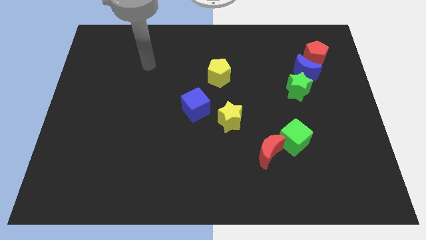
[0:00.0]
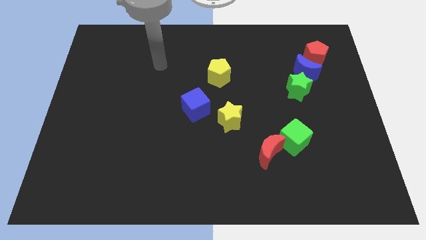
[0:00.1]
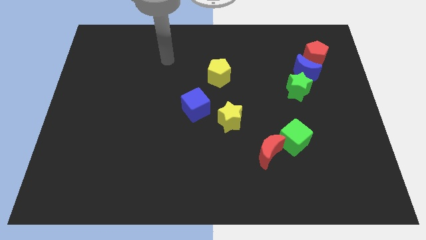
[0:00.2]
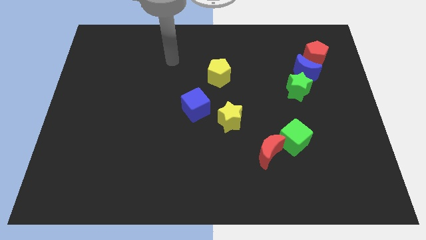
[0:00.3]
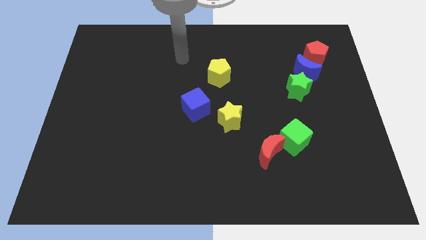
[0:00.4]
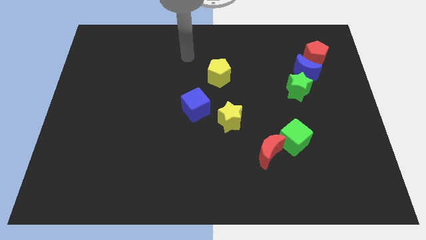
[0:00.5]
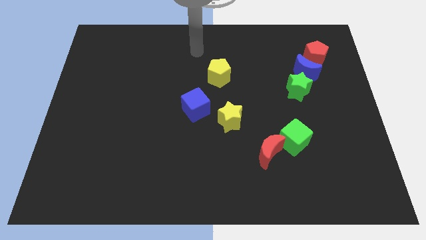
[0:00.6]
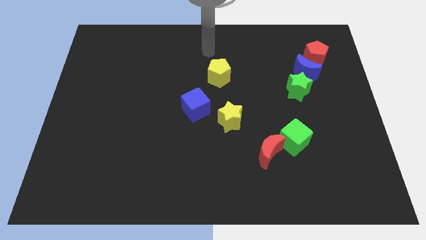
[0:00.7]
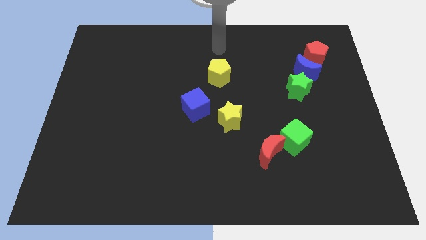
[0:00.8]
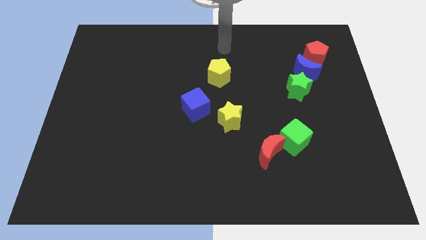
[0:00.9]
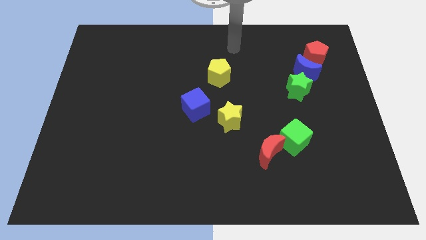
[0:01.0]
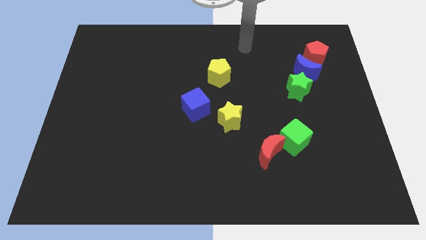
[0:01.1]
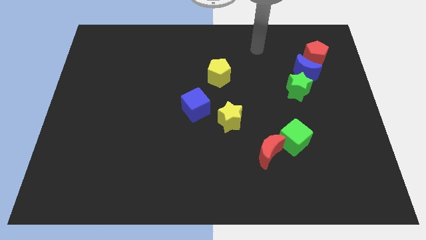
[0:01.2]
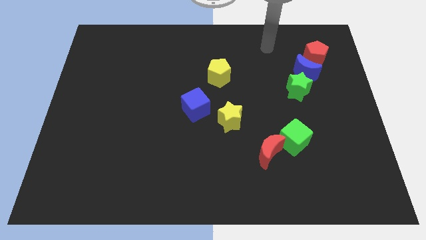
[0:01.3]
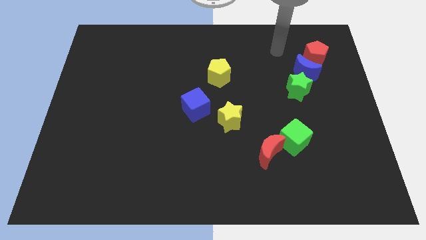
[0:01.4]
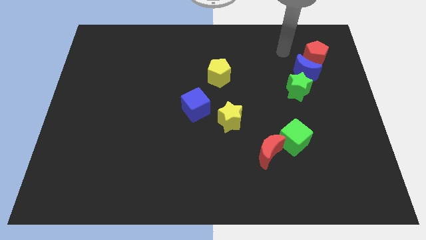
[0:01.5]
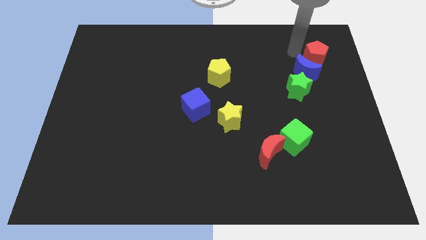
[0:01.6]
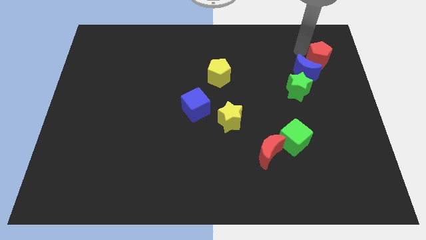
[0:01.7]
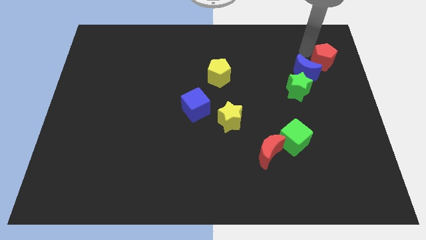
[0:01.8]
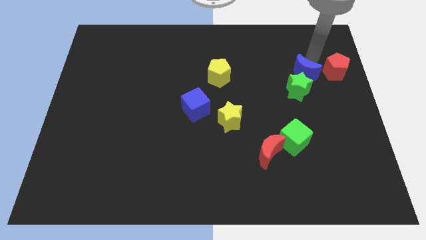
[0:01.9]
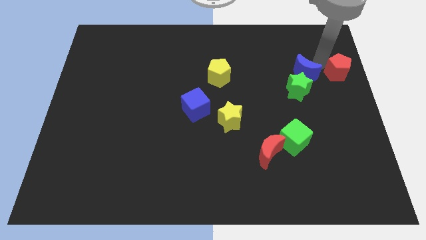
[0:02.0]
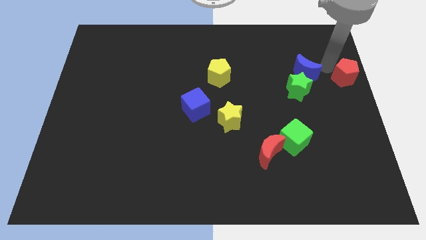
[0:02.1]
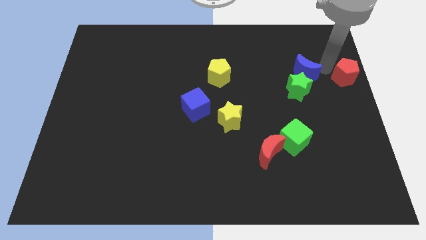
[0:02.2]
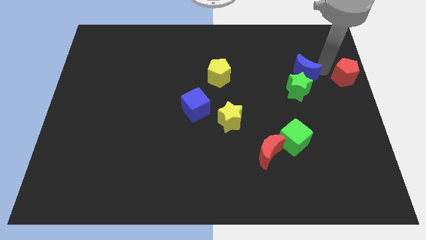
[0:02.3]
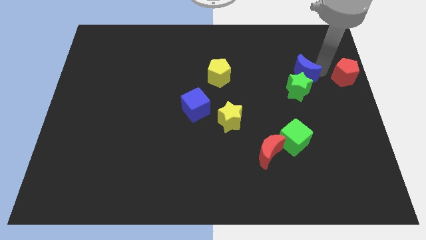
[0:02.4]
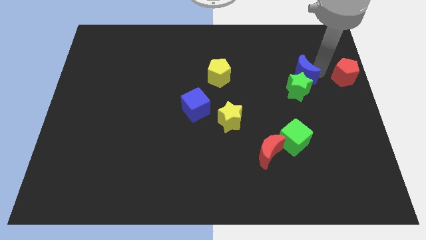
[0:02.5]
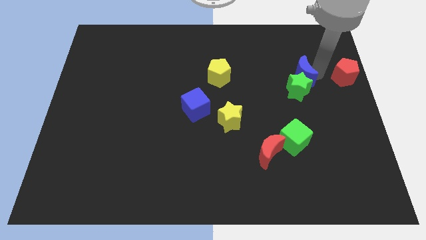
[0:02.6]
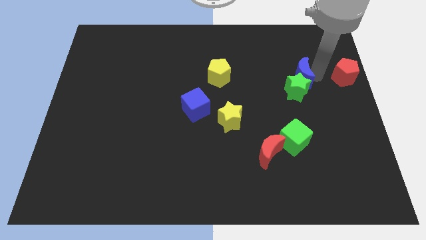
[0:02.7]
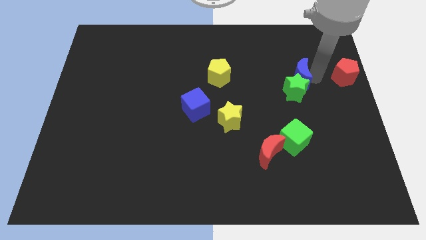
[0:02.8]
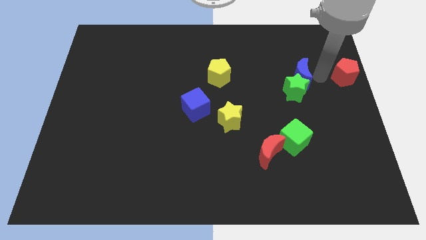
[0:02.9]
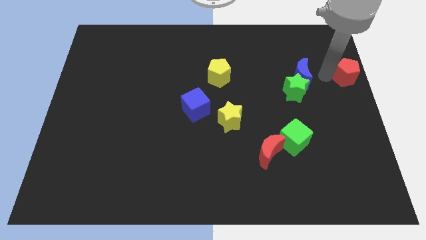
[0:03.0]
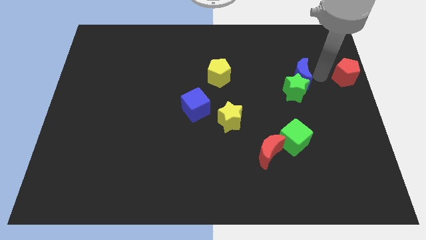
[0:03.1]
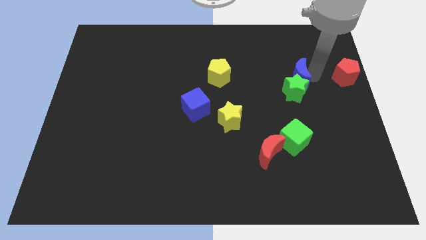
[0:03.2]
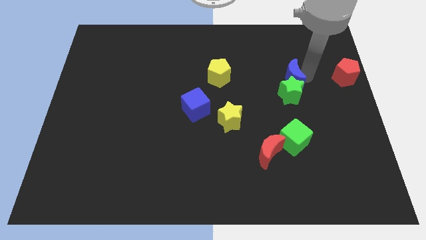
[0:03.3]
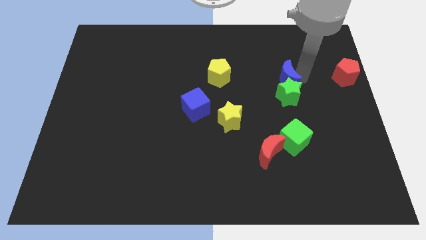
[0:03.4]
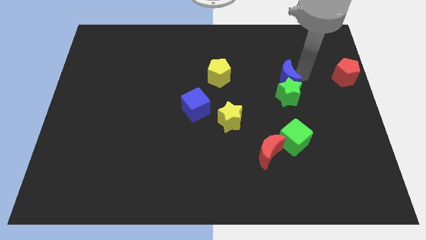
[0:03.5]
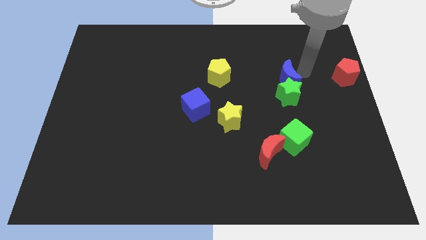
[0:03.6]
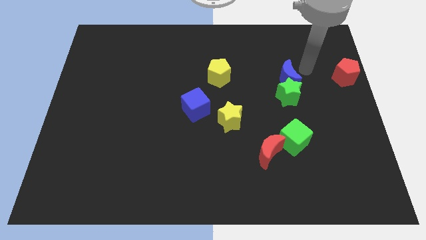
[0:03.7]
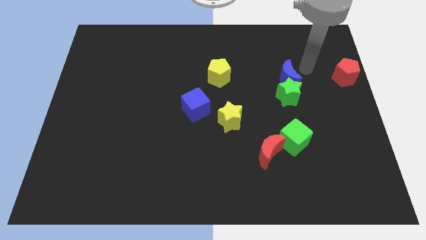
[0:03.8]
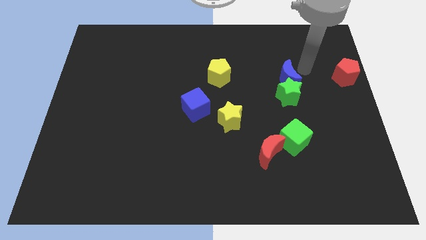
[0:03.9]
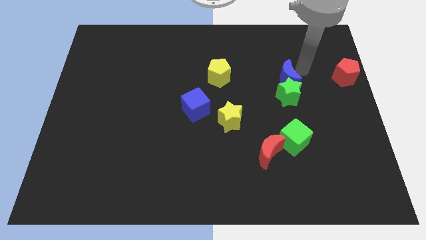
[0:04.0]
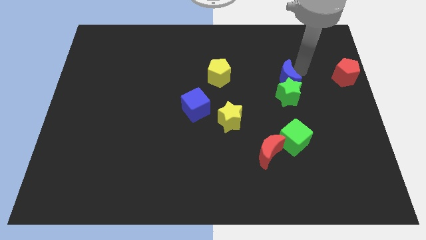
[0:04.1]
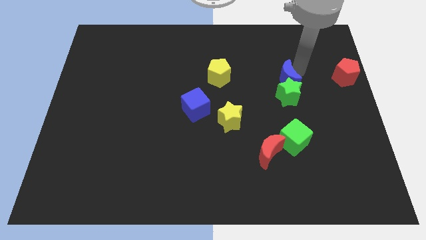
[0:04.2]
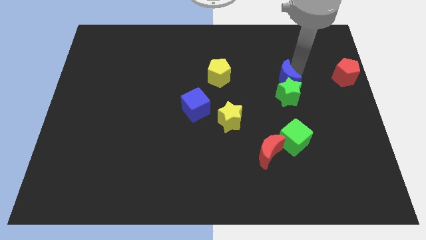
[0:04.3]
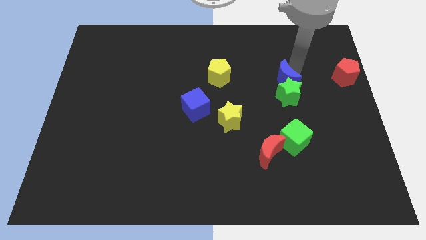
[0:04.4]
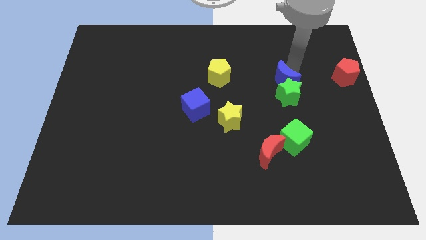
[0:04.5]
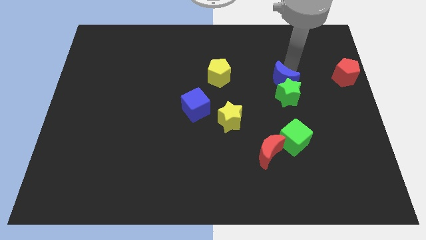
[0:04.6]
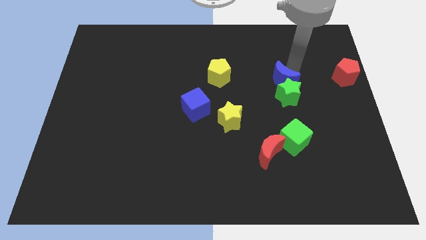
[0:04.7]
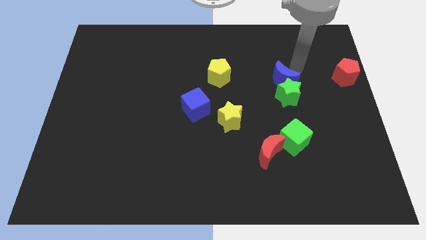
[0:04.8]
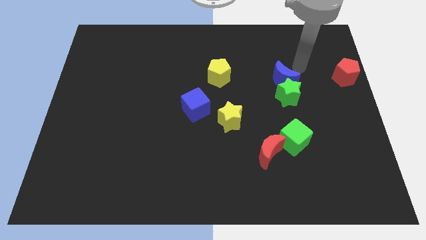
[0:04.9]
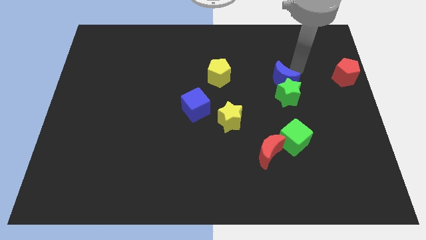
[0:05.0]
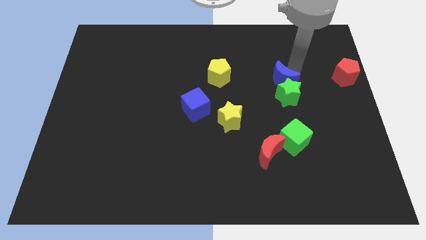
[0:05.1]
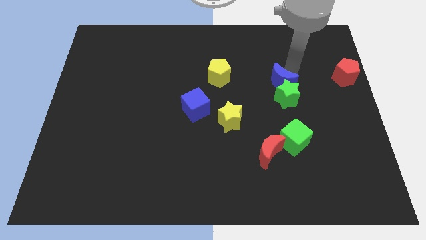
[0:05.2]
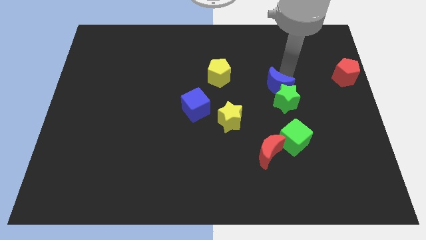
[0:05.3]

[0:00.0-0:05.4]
move the blue moon down and left slightly

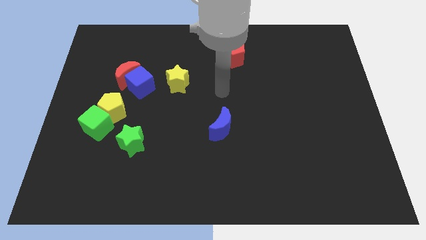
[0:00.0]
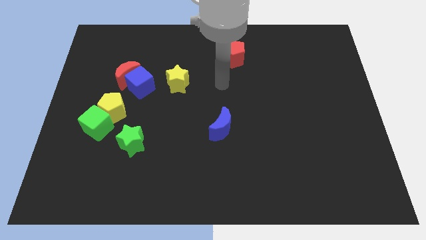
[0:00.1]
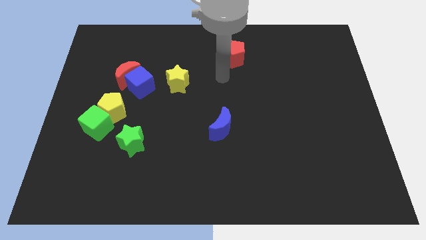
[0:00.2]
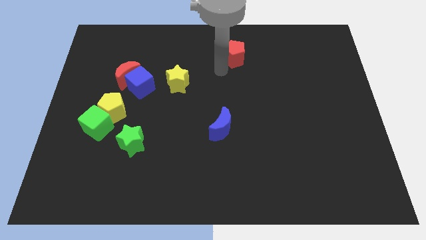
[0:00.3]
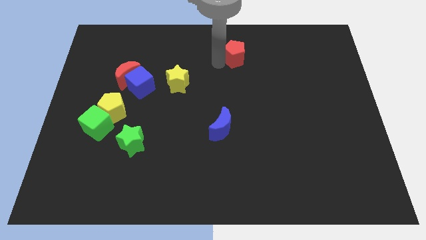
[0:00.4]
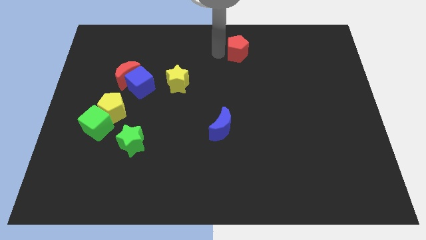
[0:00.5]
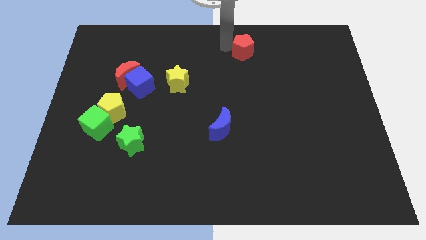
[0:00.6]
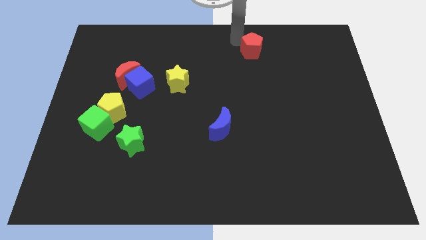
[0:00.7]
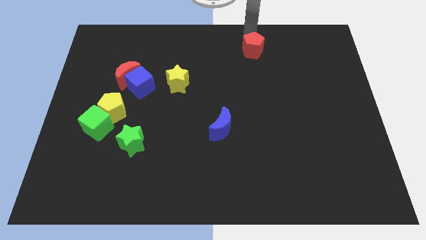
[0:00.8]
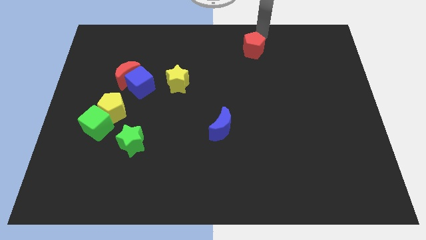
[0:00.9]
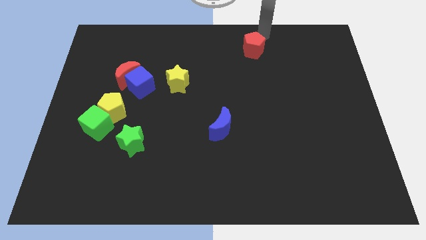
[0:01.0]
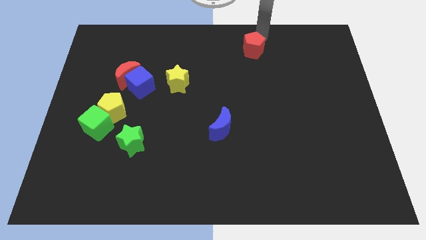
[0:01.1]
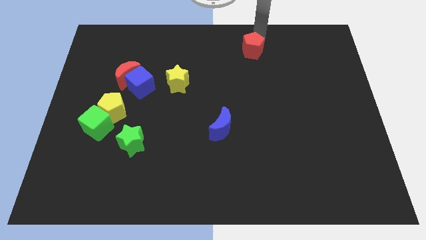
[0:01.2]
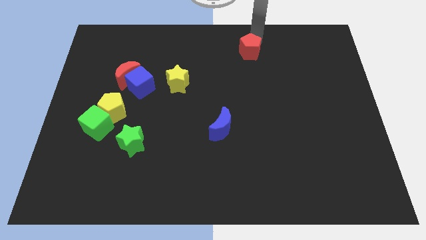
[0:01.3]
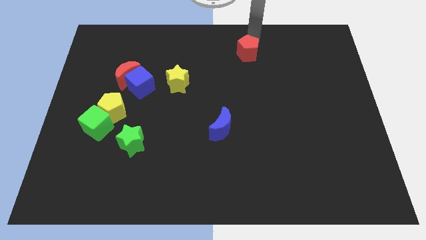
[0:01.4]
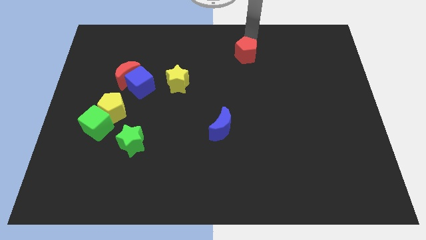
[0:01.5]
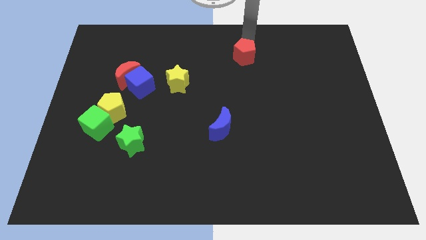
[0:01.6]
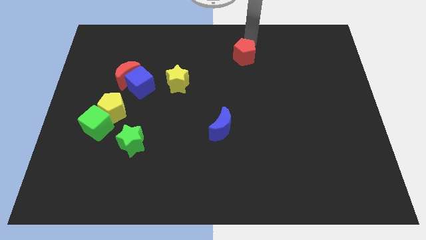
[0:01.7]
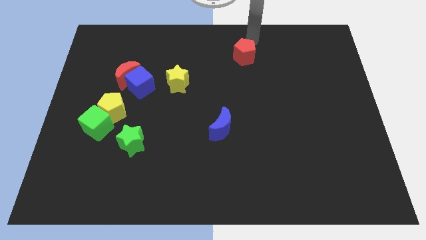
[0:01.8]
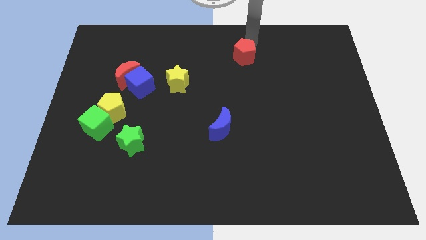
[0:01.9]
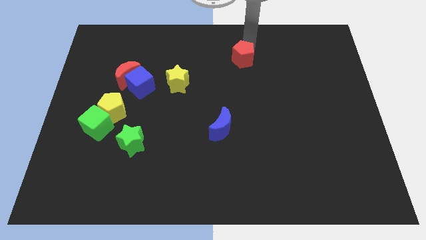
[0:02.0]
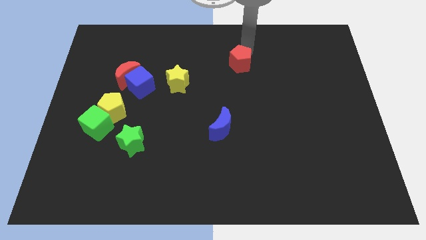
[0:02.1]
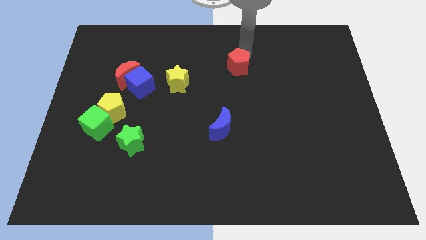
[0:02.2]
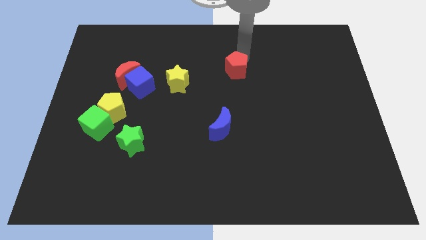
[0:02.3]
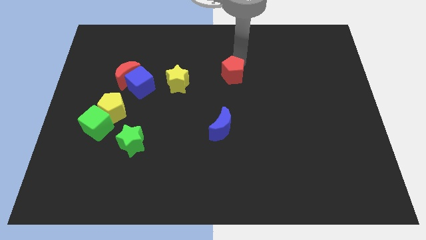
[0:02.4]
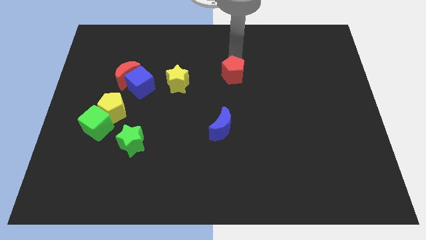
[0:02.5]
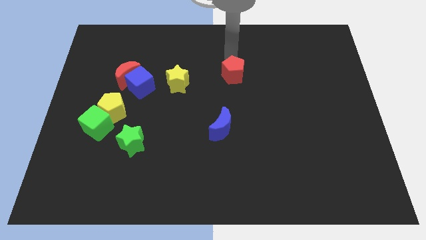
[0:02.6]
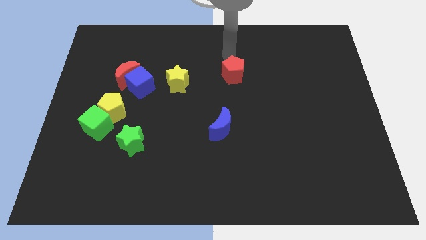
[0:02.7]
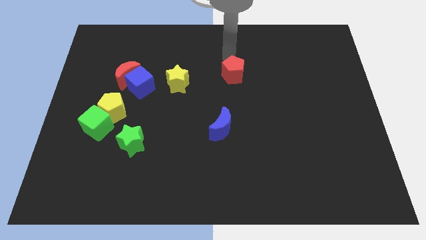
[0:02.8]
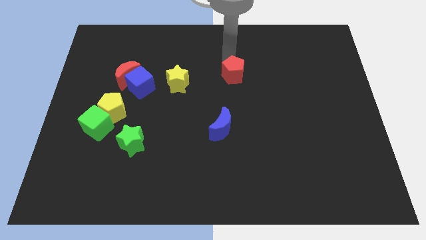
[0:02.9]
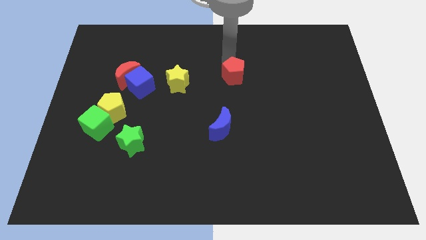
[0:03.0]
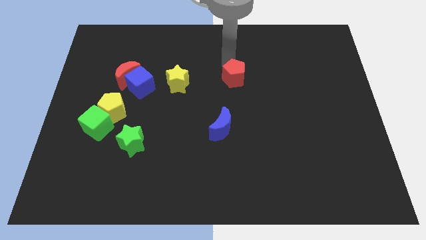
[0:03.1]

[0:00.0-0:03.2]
slightly push the red pentagon down
